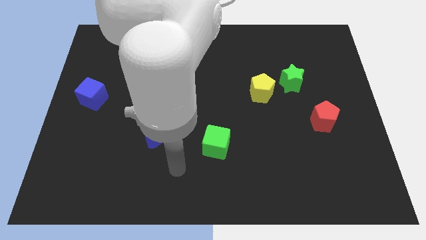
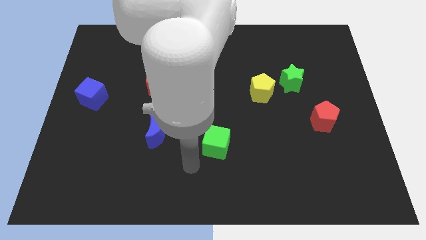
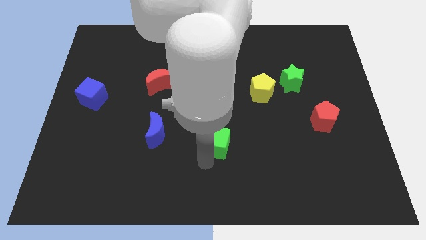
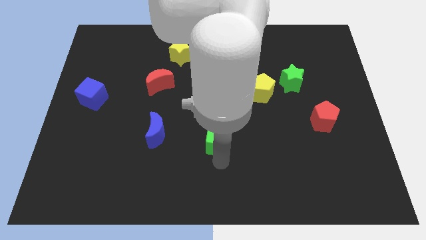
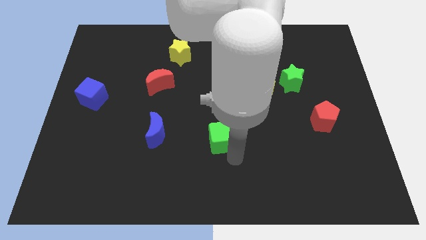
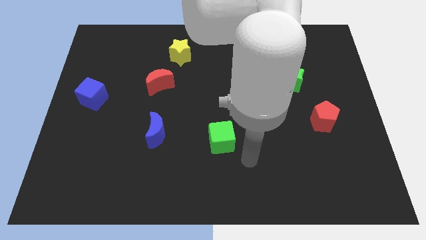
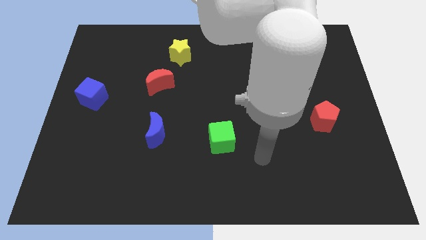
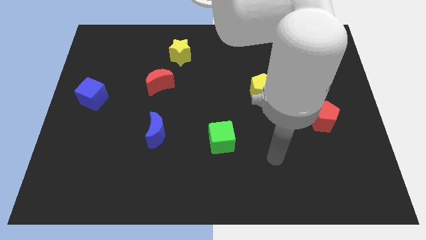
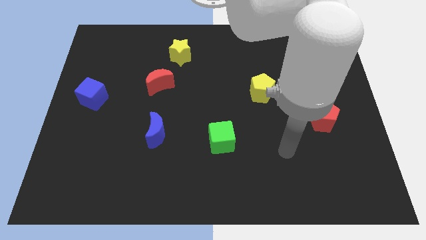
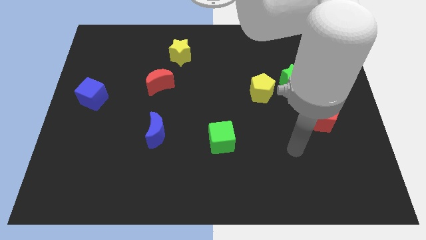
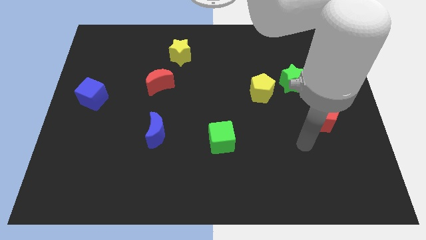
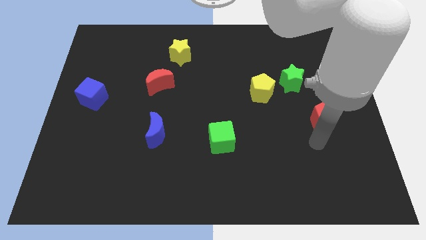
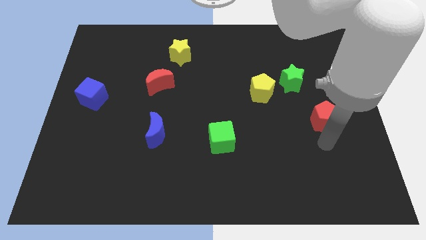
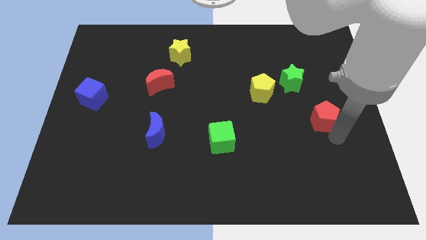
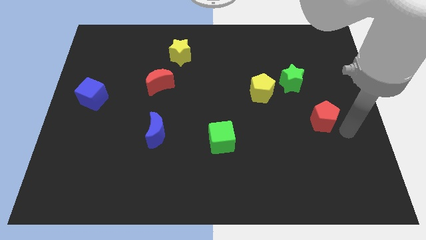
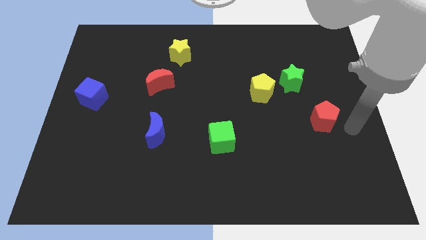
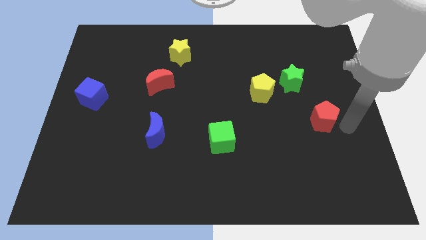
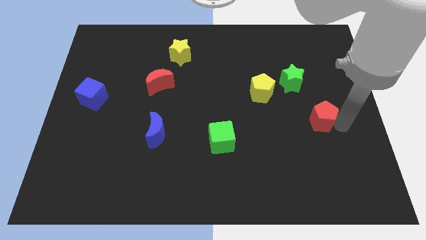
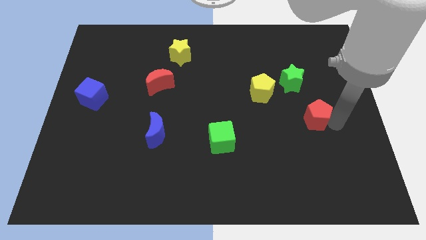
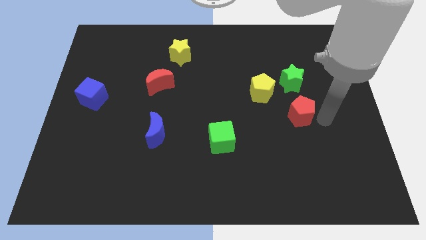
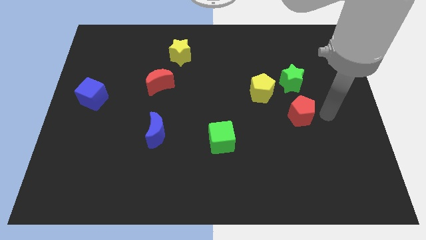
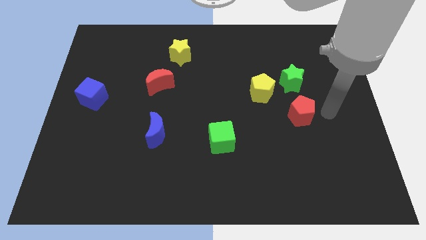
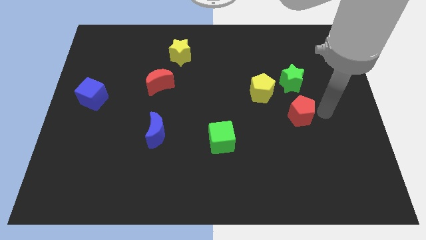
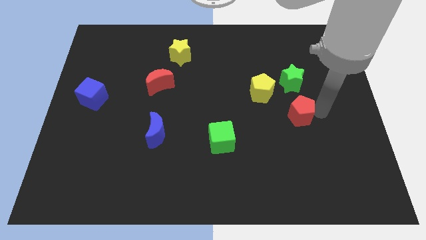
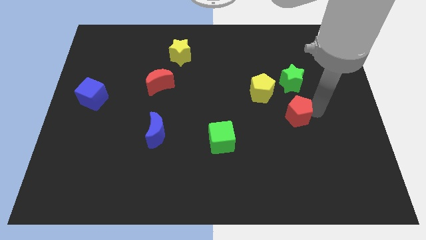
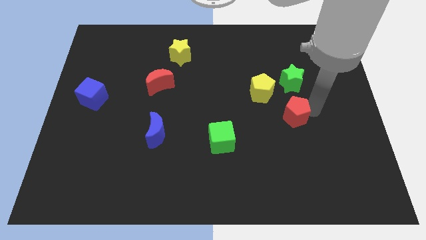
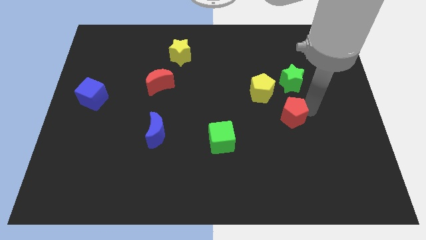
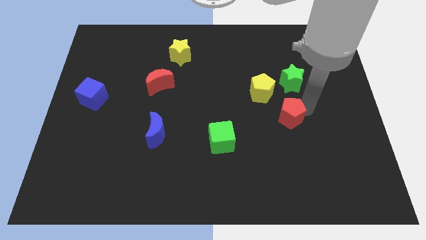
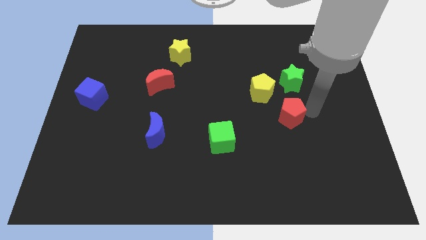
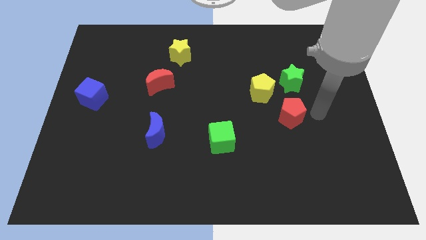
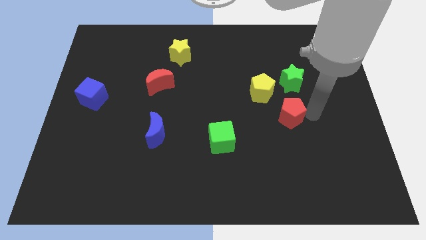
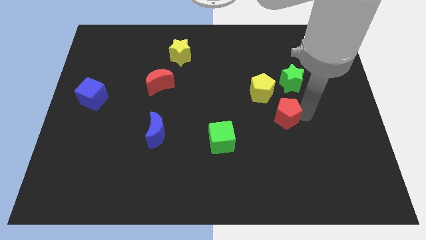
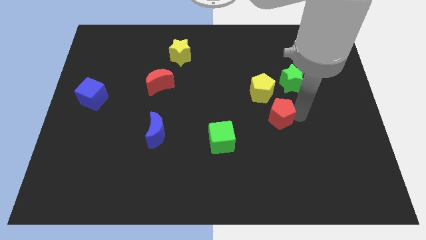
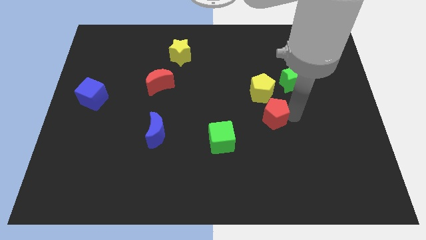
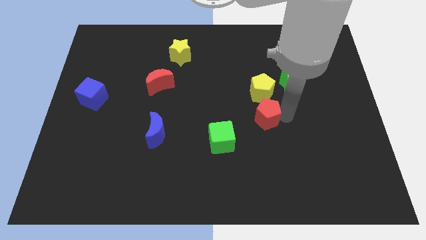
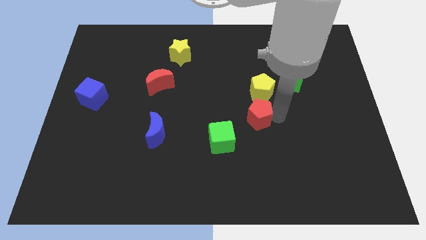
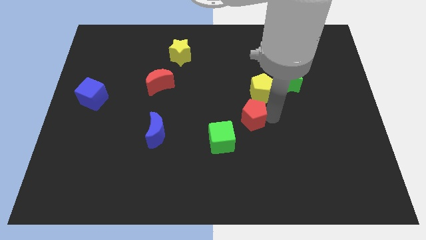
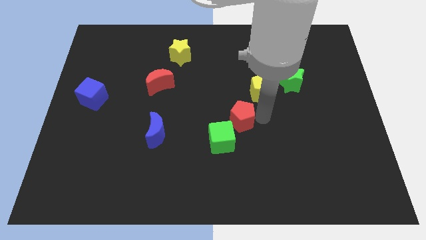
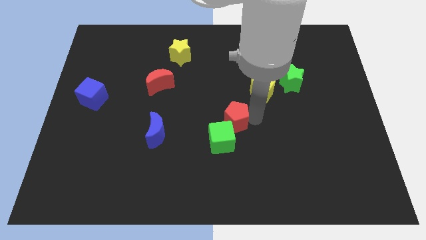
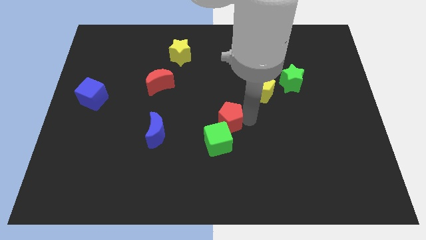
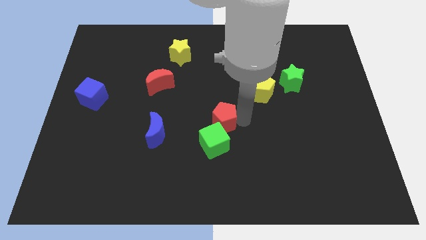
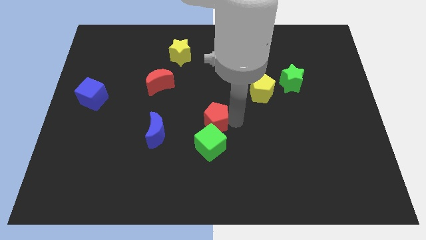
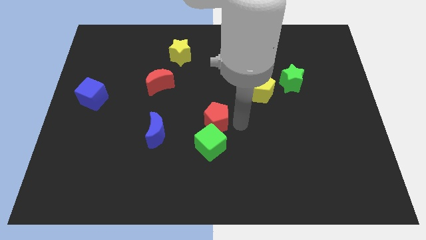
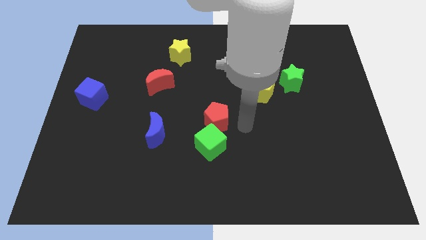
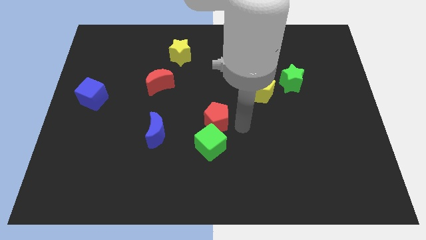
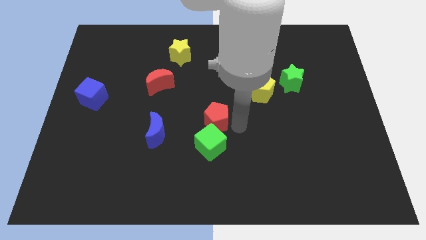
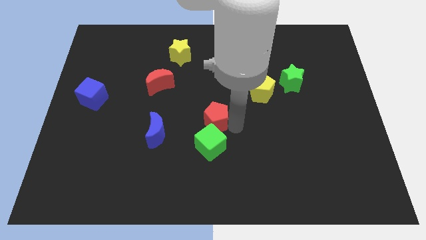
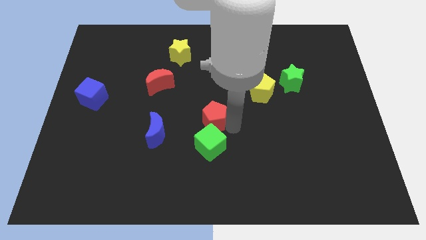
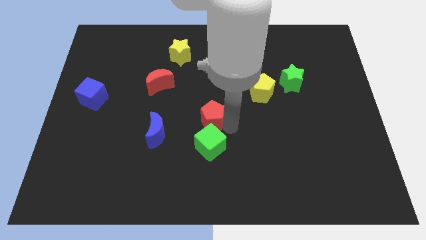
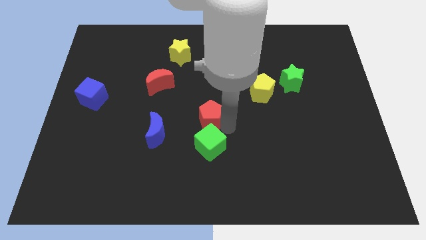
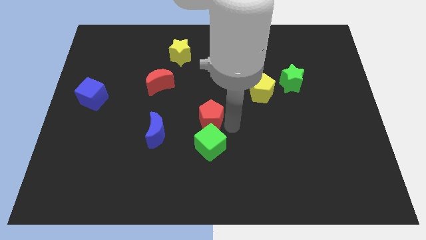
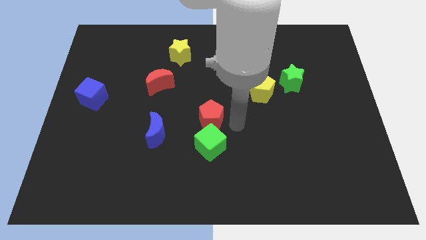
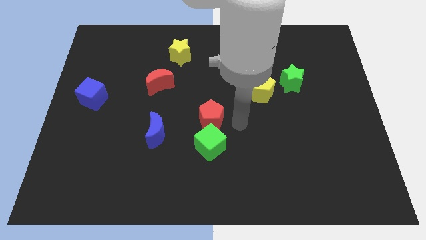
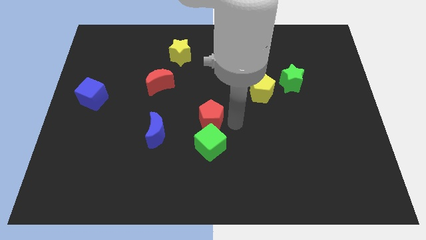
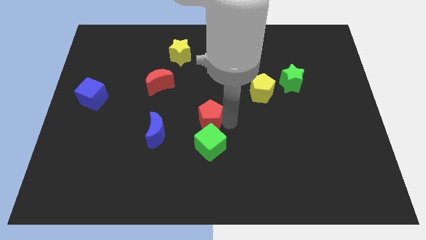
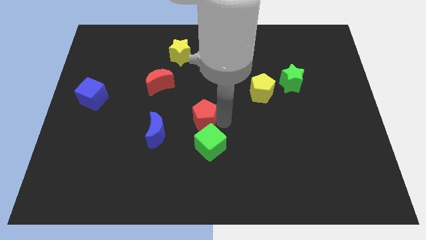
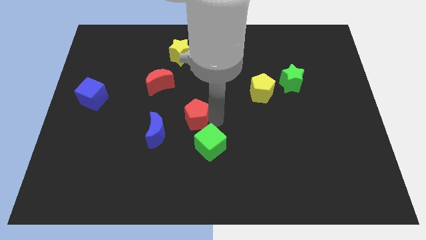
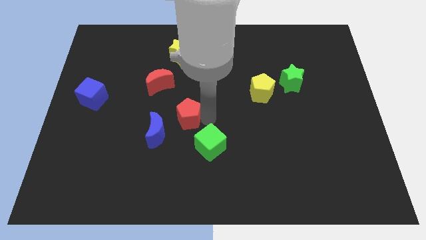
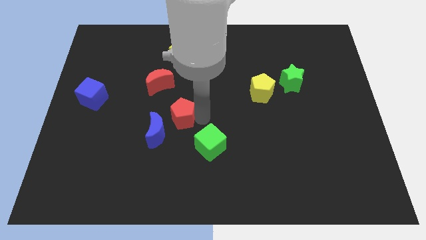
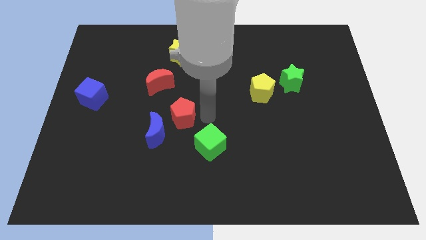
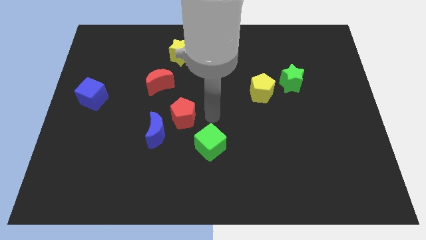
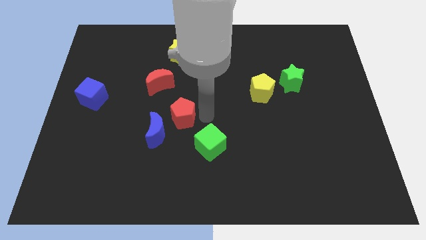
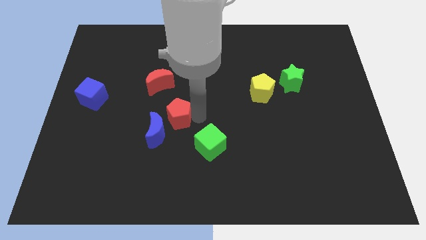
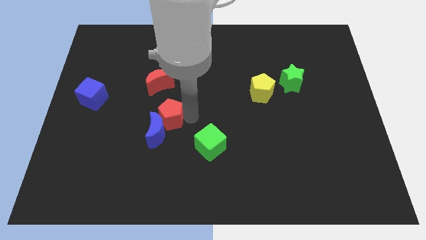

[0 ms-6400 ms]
slide the red pentagon to the bottom side of the red moon
